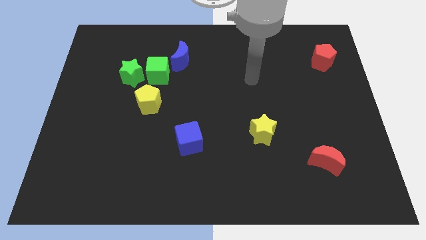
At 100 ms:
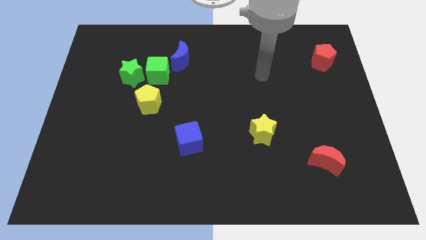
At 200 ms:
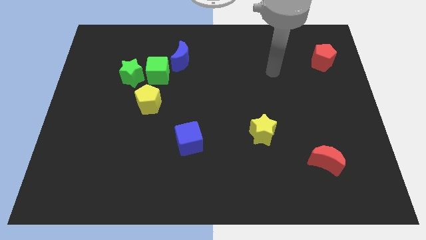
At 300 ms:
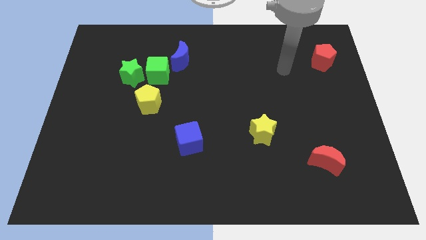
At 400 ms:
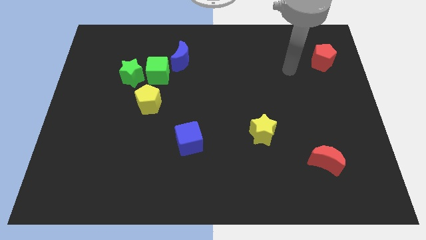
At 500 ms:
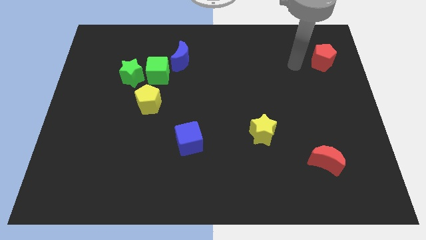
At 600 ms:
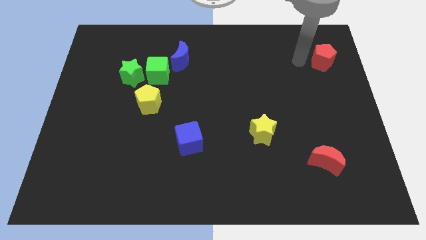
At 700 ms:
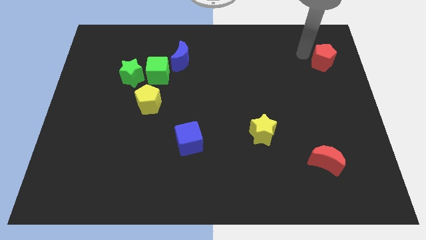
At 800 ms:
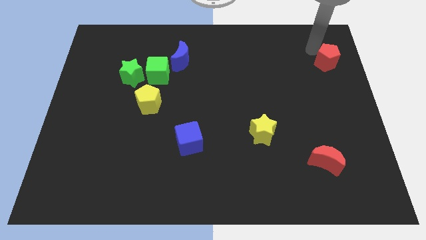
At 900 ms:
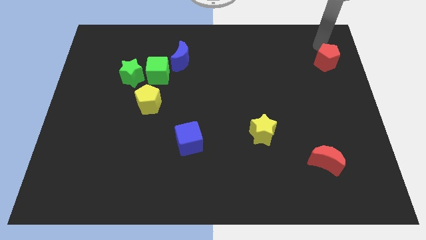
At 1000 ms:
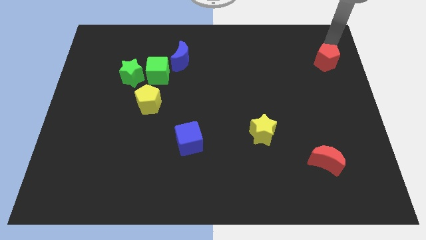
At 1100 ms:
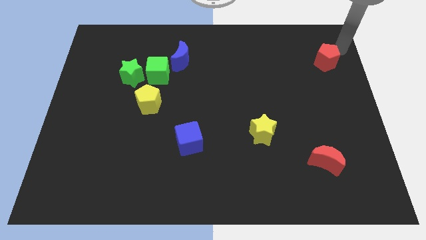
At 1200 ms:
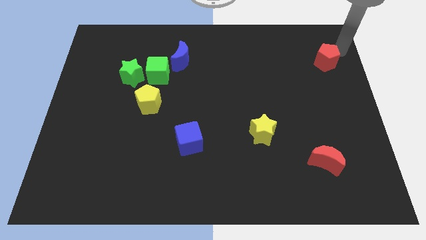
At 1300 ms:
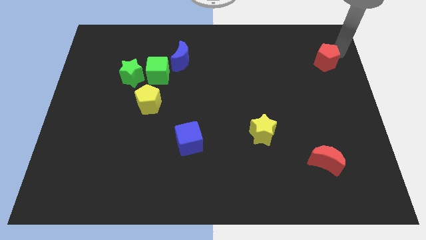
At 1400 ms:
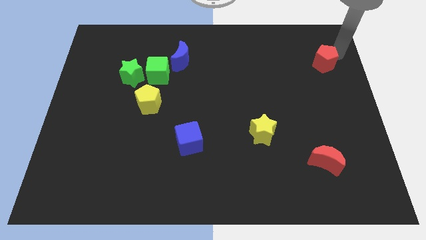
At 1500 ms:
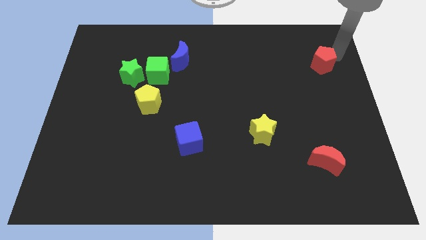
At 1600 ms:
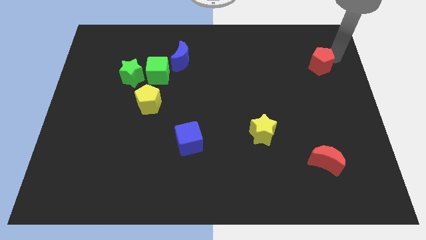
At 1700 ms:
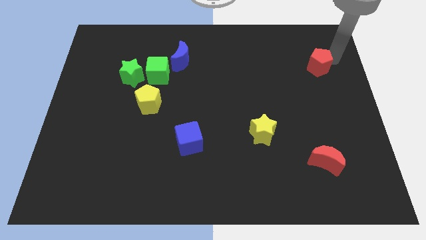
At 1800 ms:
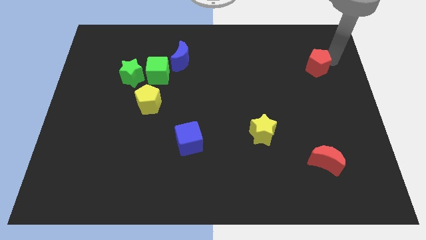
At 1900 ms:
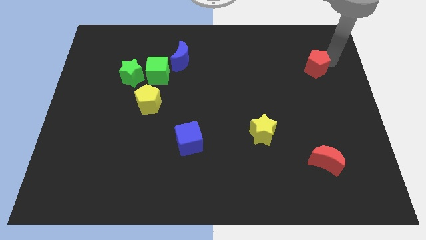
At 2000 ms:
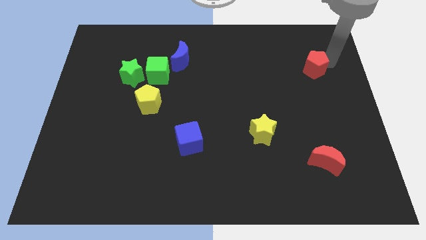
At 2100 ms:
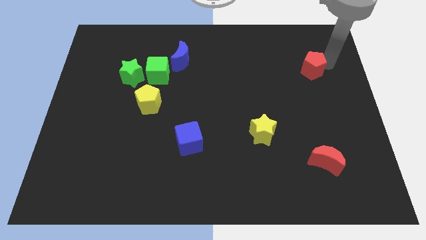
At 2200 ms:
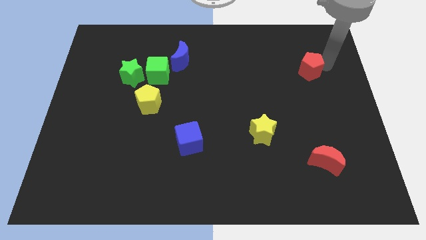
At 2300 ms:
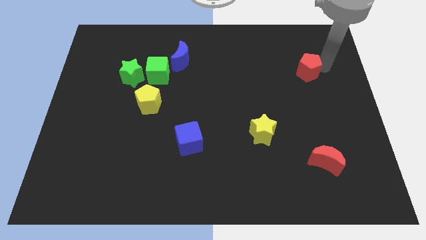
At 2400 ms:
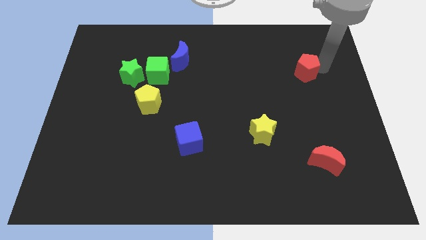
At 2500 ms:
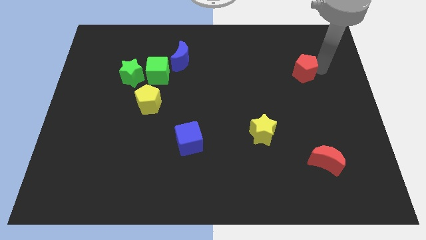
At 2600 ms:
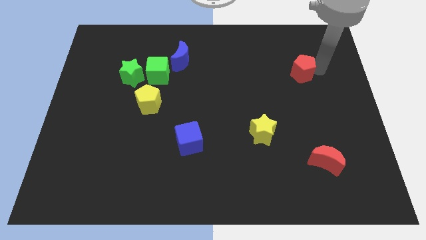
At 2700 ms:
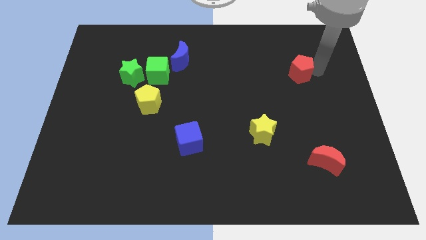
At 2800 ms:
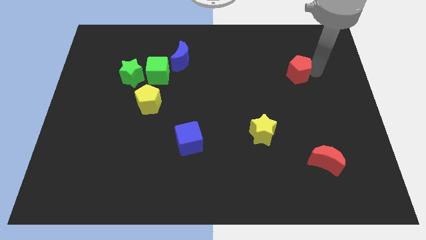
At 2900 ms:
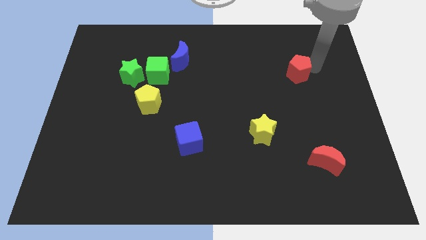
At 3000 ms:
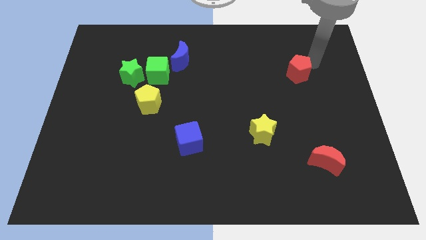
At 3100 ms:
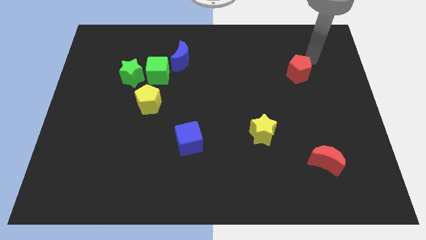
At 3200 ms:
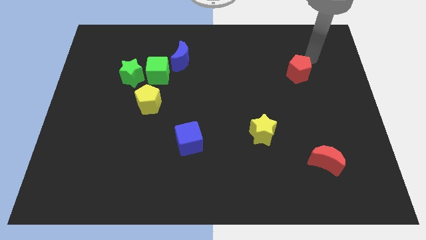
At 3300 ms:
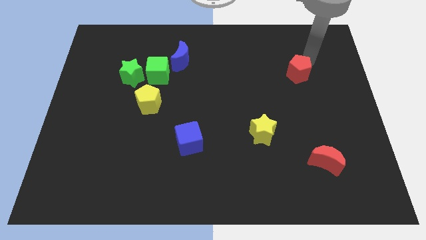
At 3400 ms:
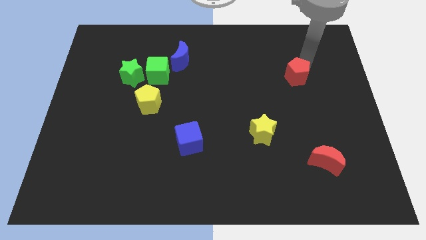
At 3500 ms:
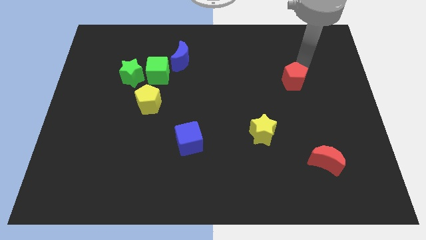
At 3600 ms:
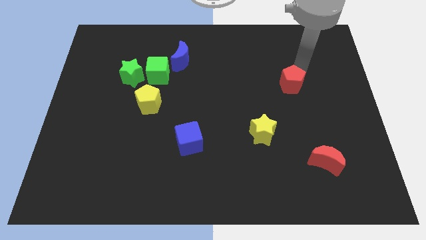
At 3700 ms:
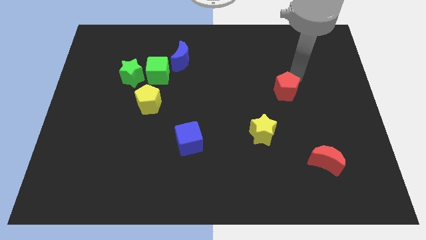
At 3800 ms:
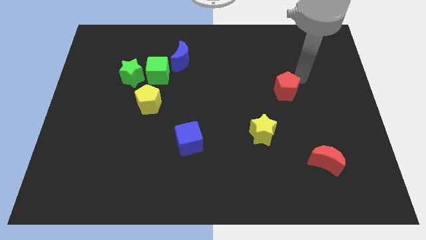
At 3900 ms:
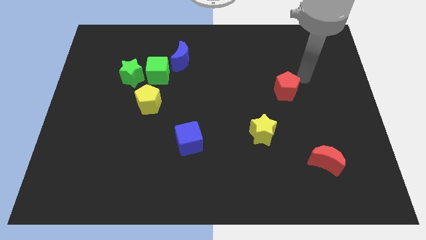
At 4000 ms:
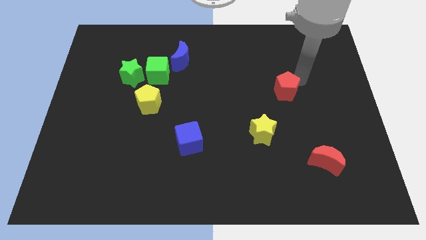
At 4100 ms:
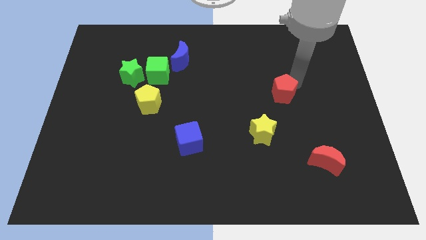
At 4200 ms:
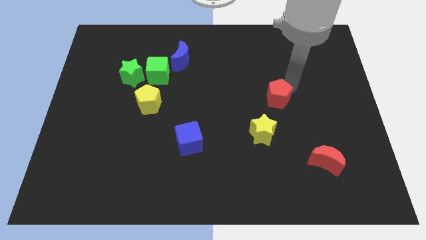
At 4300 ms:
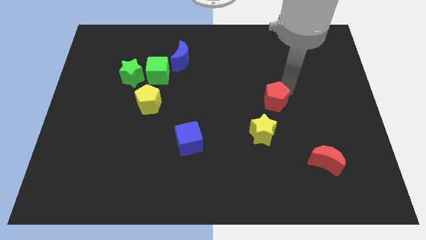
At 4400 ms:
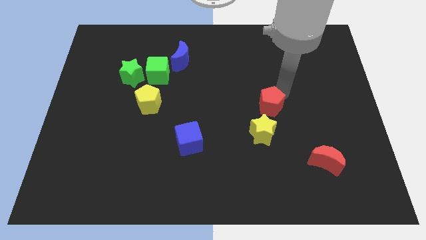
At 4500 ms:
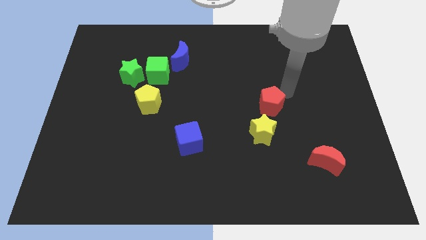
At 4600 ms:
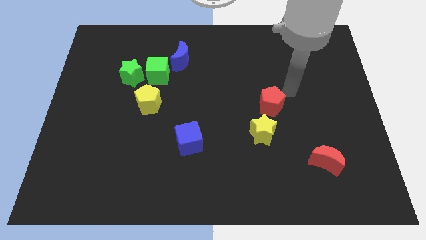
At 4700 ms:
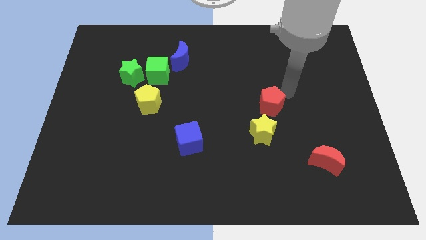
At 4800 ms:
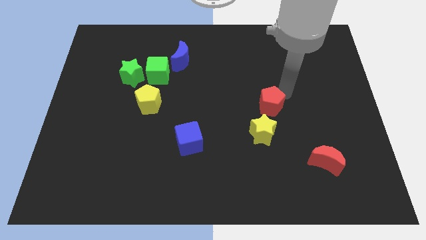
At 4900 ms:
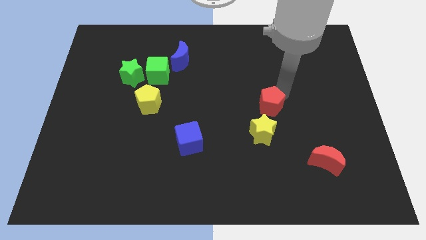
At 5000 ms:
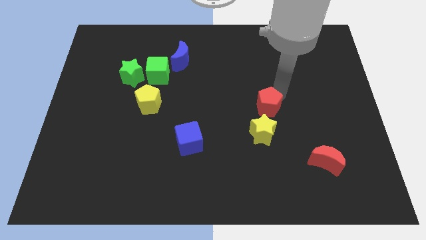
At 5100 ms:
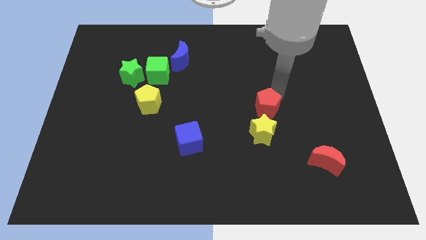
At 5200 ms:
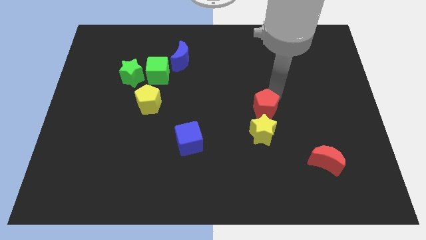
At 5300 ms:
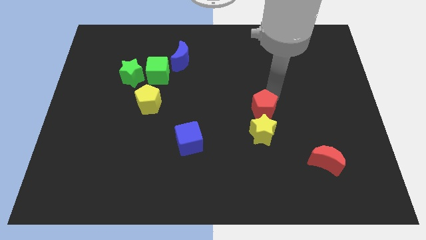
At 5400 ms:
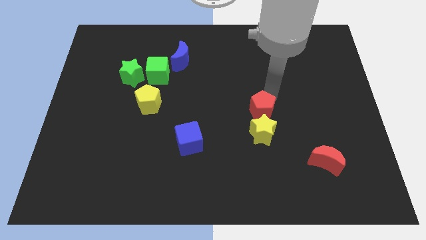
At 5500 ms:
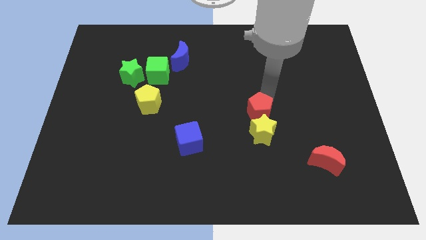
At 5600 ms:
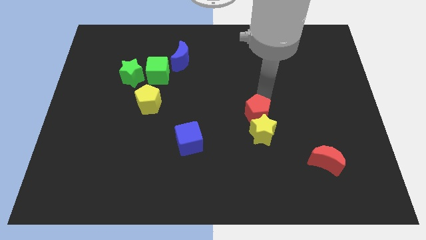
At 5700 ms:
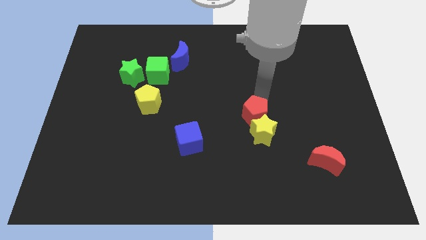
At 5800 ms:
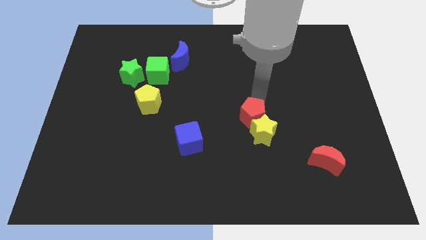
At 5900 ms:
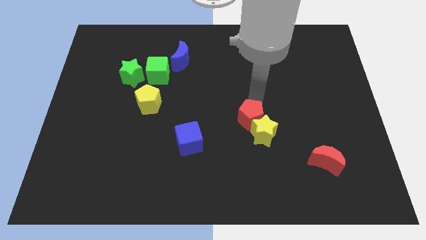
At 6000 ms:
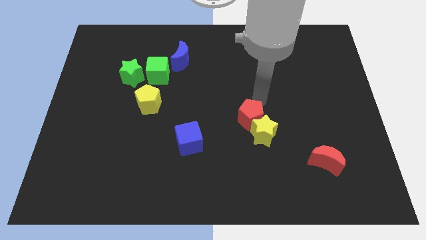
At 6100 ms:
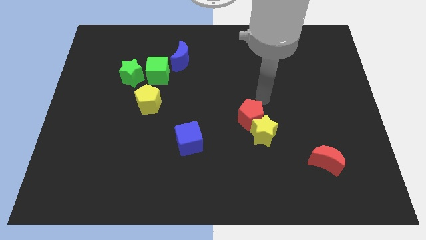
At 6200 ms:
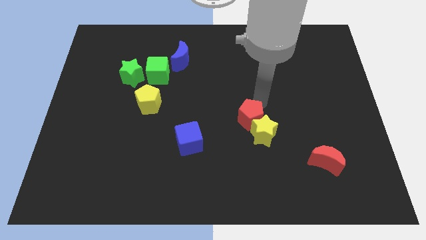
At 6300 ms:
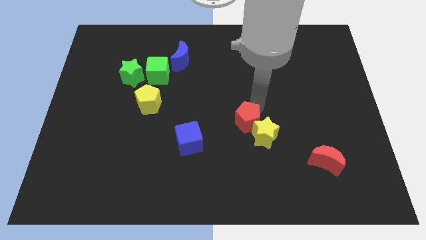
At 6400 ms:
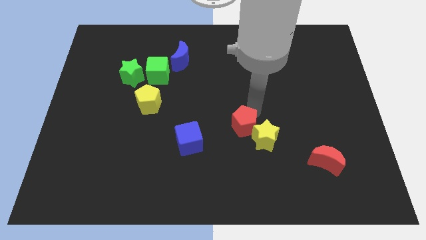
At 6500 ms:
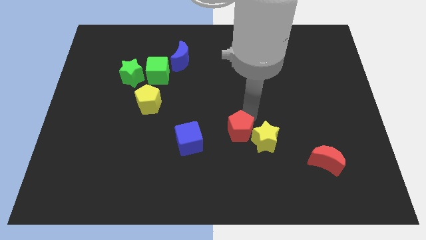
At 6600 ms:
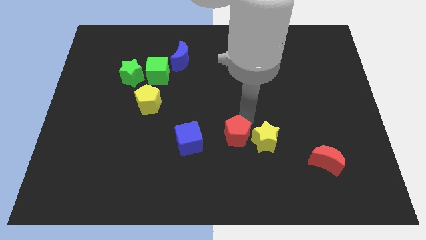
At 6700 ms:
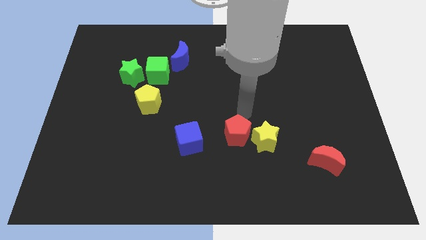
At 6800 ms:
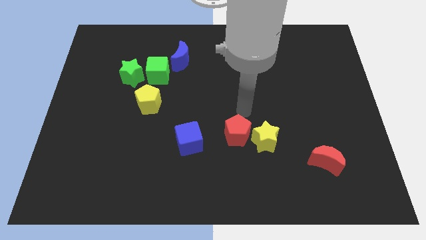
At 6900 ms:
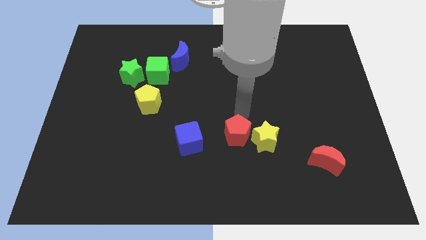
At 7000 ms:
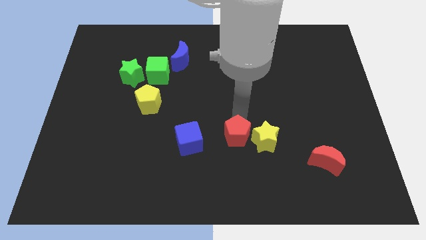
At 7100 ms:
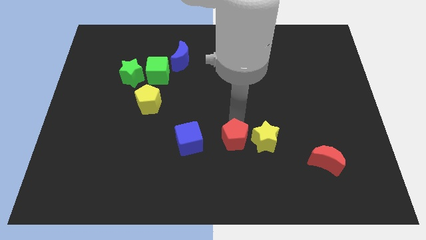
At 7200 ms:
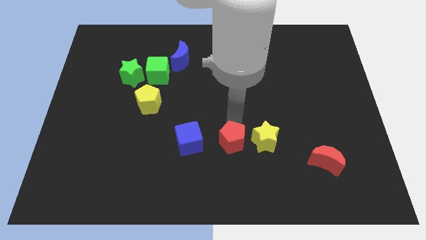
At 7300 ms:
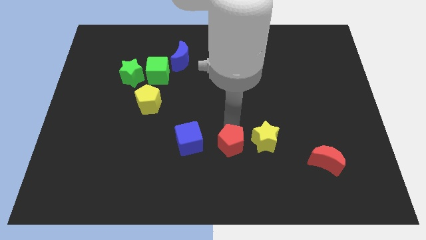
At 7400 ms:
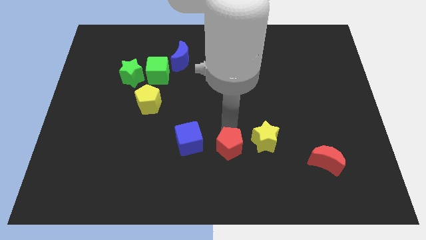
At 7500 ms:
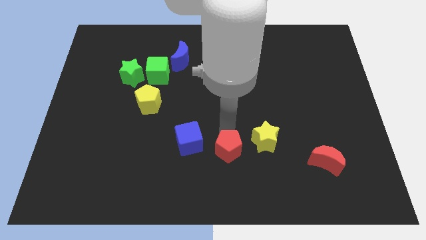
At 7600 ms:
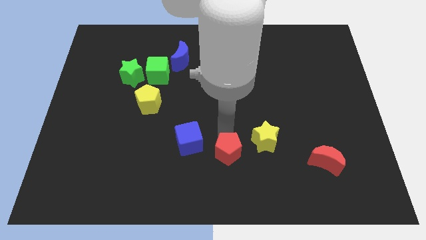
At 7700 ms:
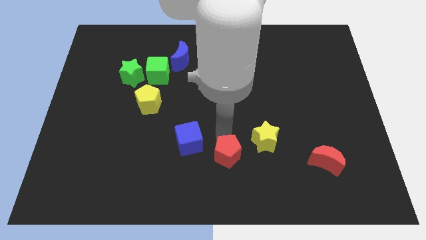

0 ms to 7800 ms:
put the red pentagon to the bottom side
